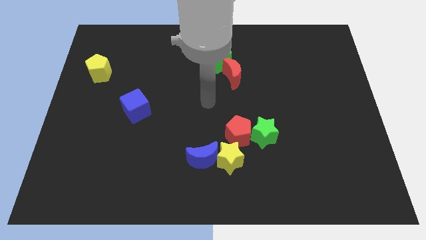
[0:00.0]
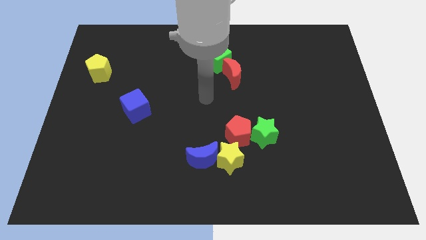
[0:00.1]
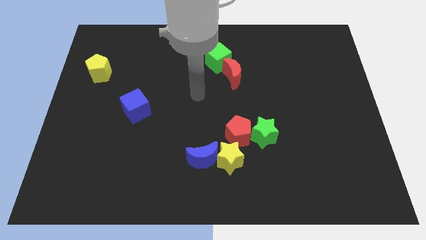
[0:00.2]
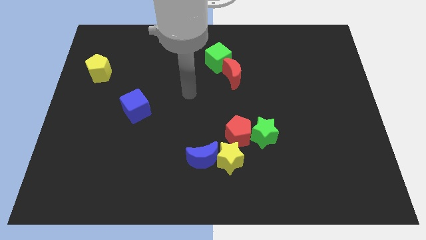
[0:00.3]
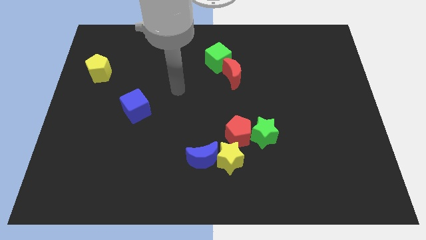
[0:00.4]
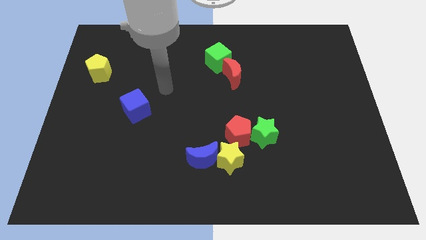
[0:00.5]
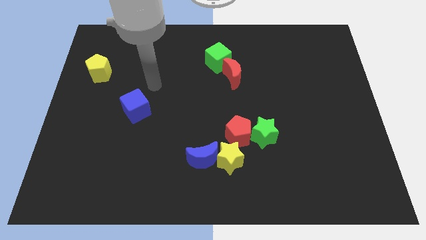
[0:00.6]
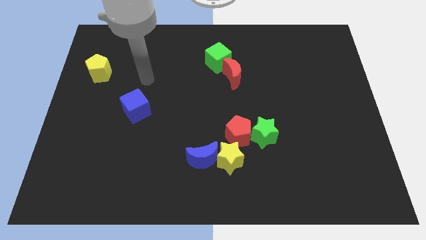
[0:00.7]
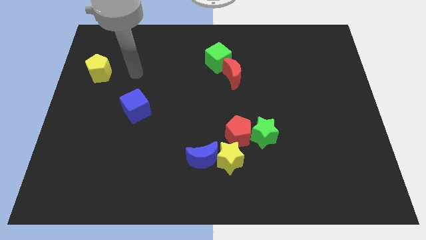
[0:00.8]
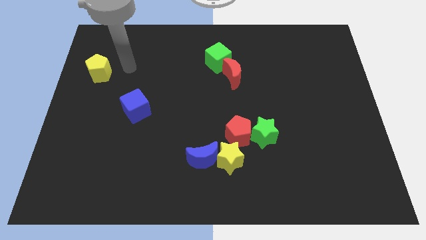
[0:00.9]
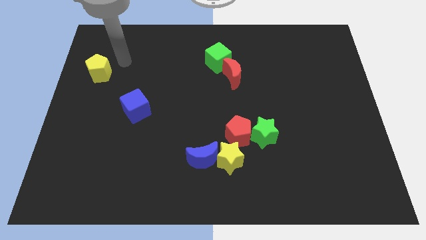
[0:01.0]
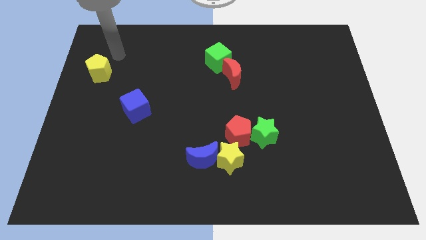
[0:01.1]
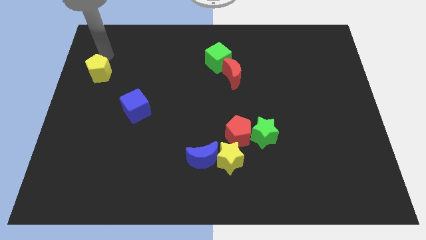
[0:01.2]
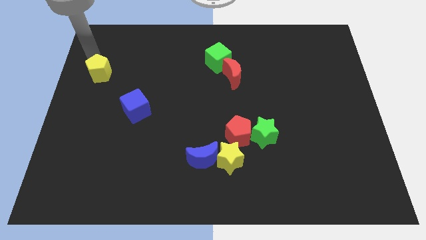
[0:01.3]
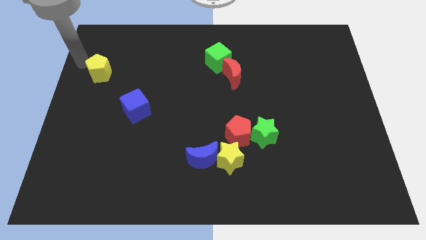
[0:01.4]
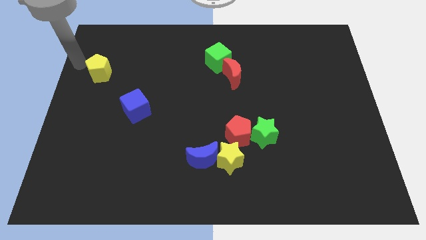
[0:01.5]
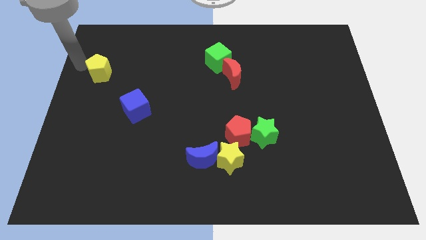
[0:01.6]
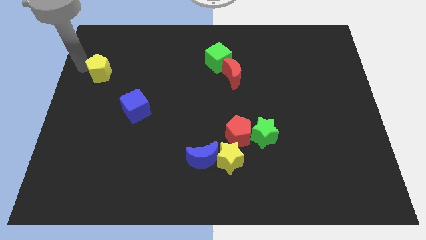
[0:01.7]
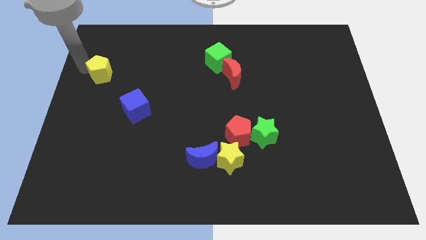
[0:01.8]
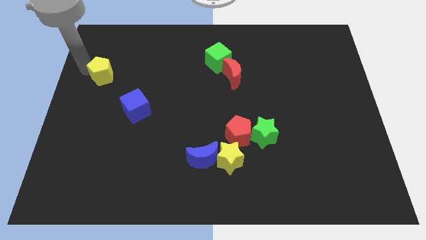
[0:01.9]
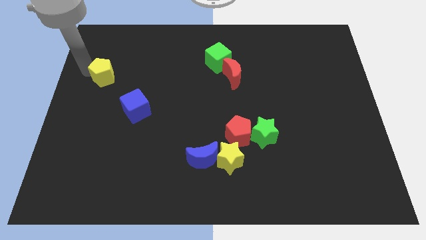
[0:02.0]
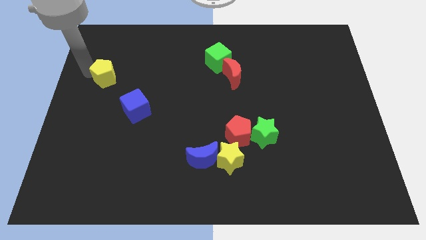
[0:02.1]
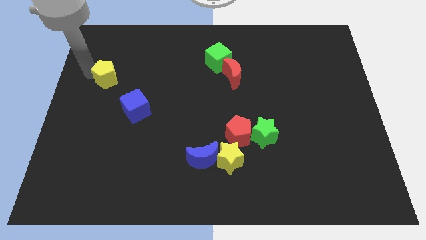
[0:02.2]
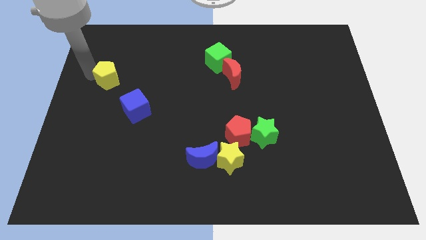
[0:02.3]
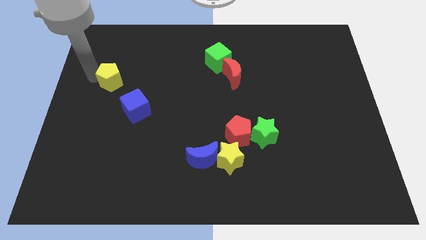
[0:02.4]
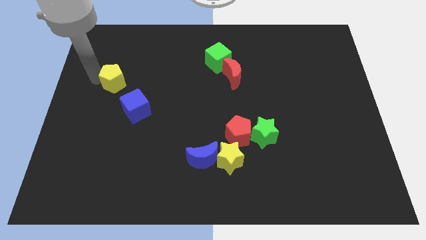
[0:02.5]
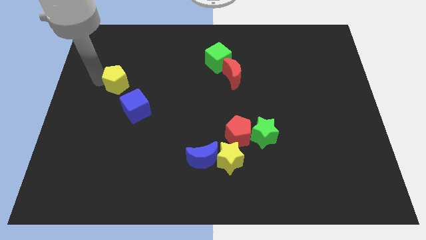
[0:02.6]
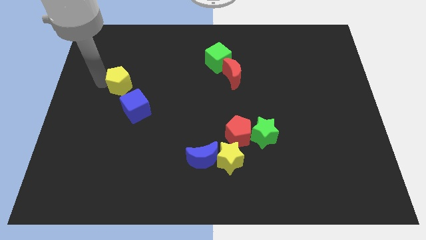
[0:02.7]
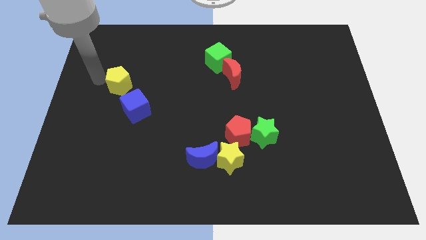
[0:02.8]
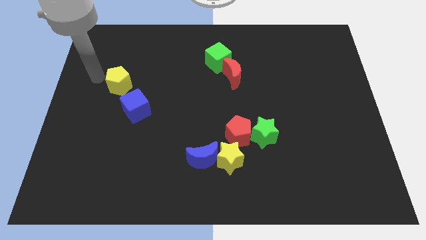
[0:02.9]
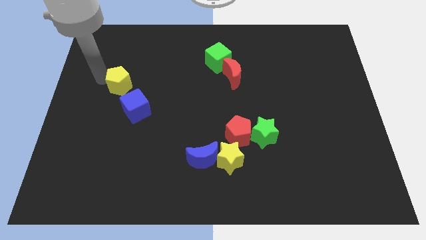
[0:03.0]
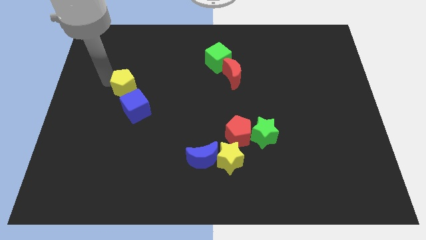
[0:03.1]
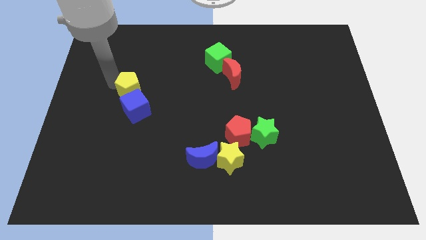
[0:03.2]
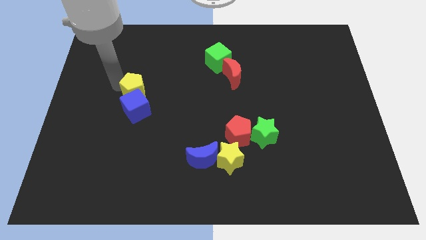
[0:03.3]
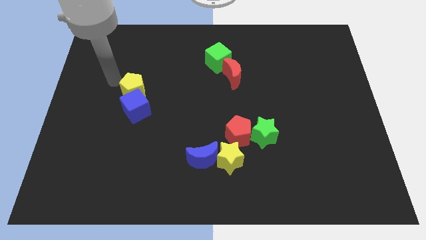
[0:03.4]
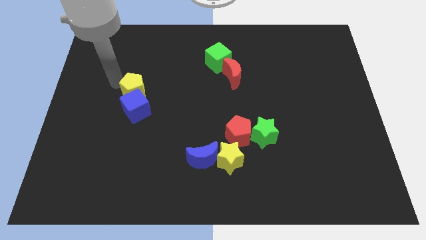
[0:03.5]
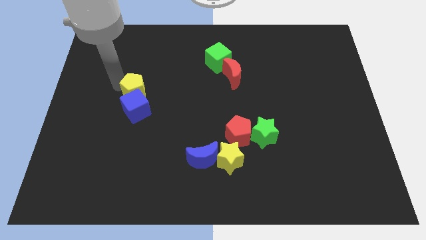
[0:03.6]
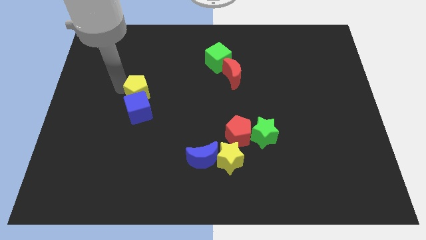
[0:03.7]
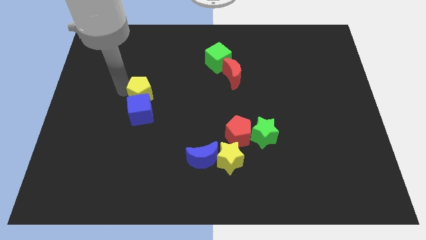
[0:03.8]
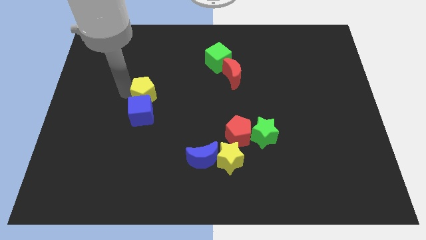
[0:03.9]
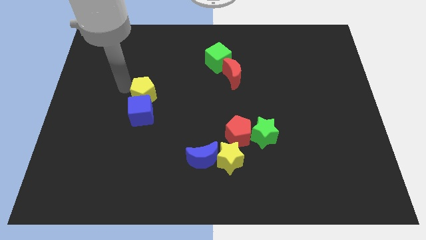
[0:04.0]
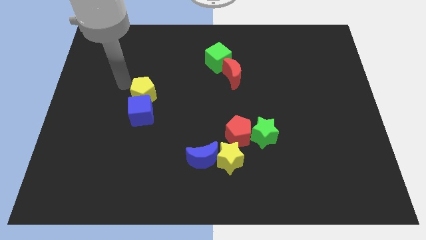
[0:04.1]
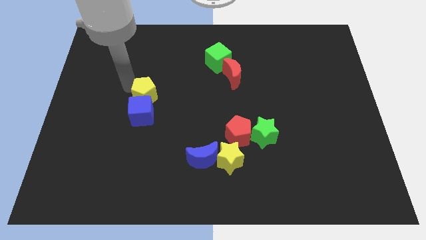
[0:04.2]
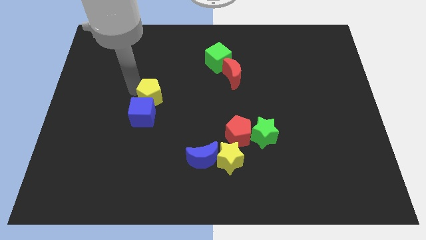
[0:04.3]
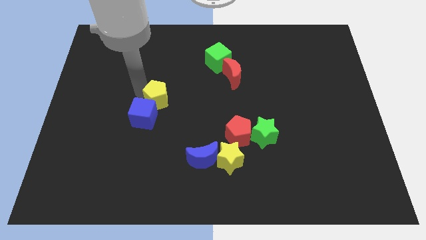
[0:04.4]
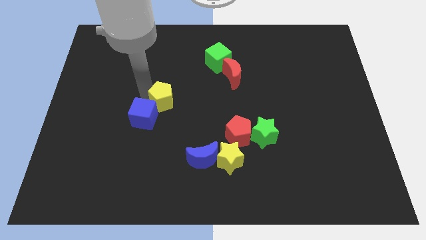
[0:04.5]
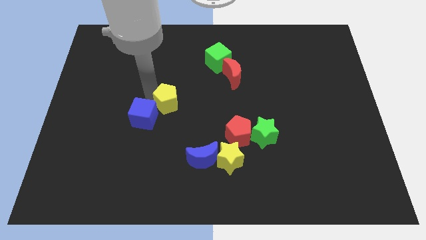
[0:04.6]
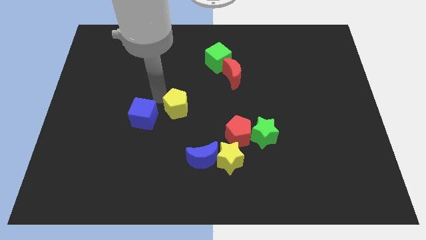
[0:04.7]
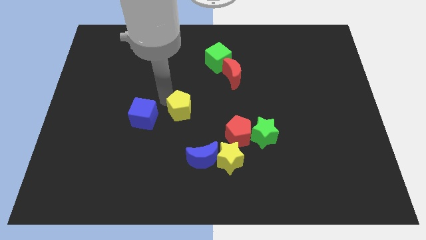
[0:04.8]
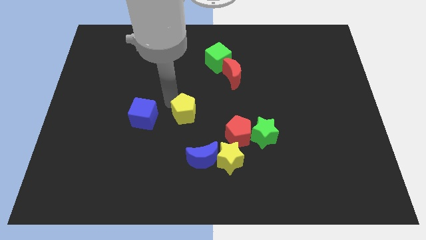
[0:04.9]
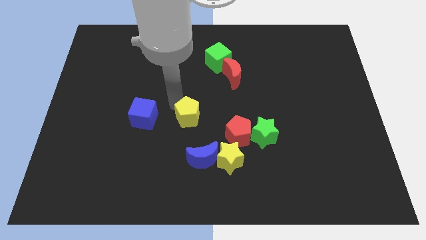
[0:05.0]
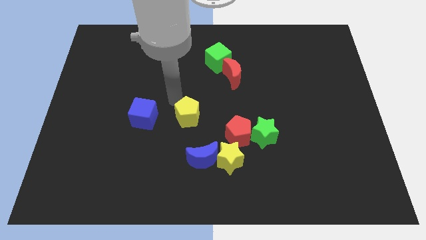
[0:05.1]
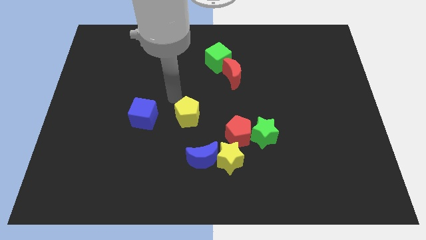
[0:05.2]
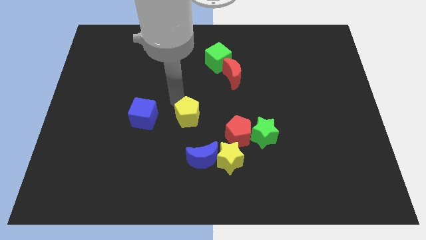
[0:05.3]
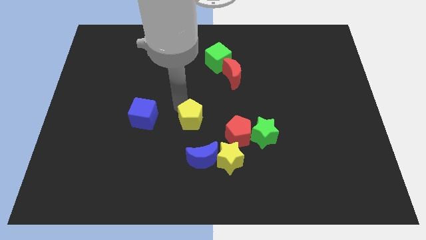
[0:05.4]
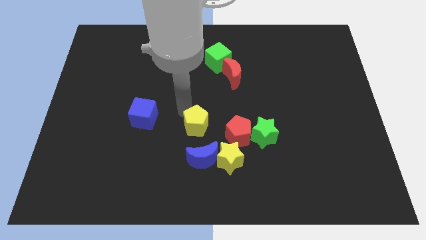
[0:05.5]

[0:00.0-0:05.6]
slide the yellow pentagon diagonally up and to the left of the yellow star

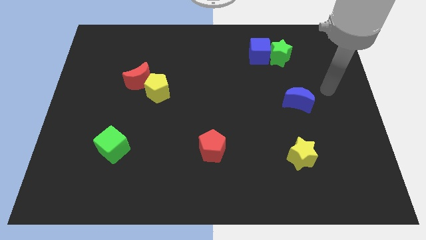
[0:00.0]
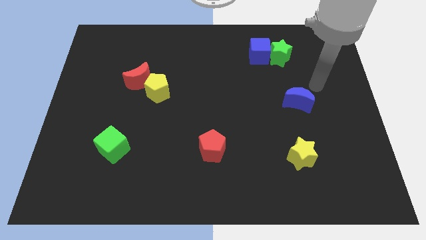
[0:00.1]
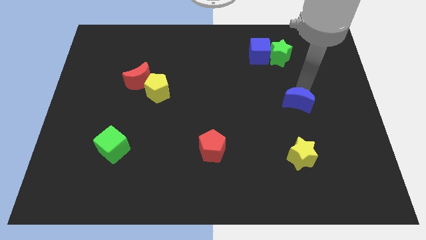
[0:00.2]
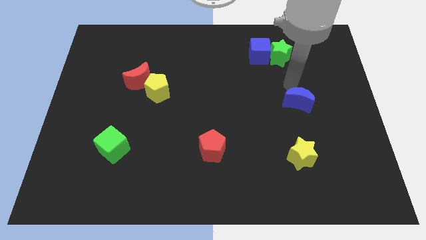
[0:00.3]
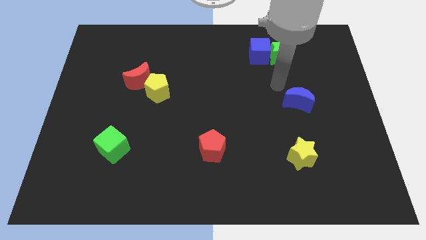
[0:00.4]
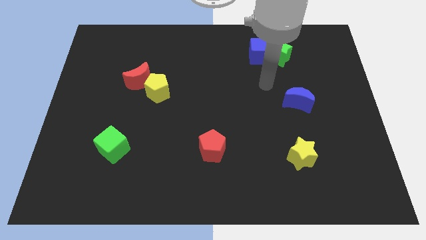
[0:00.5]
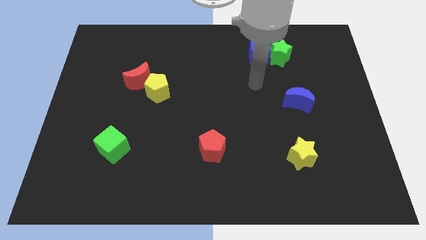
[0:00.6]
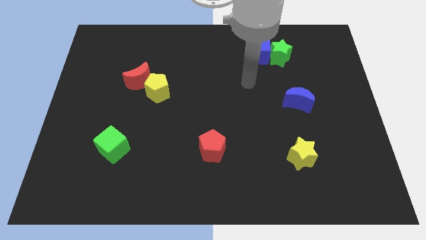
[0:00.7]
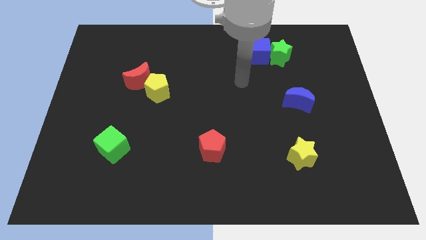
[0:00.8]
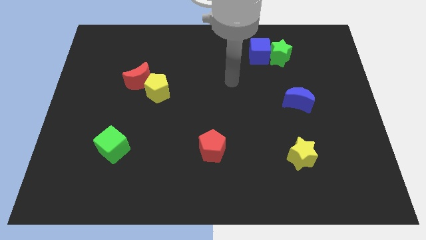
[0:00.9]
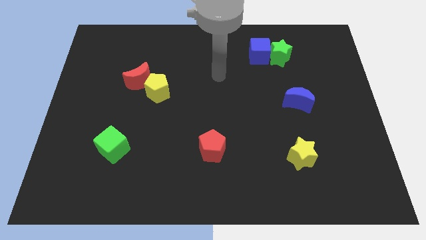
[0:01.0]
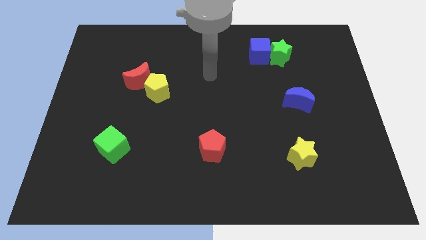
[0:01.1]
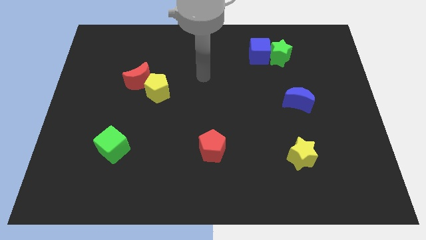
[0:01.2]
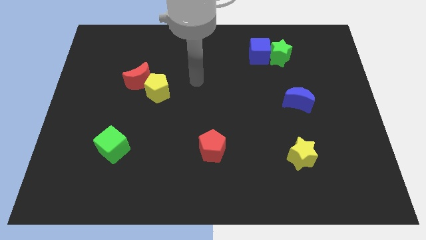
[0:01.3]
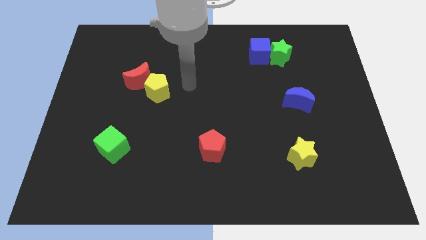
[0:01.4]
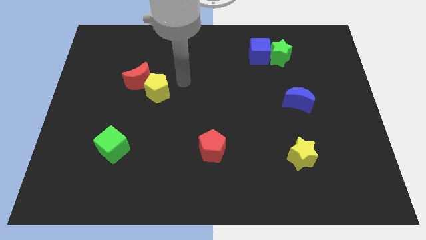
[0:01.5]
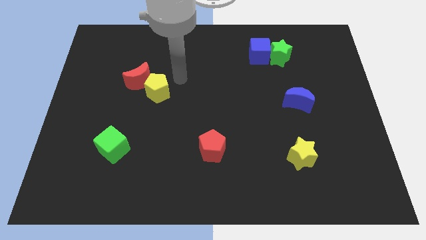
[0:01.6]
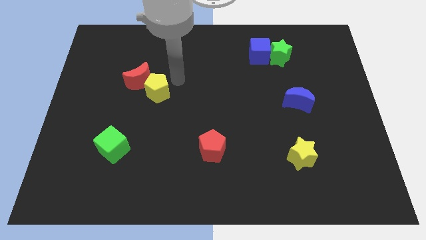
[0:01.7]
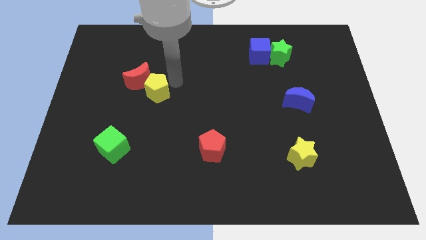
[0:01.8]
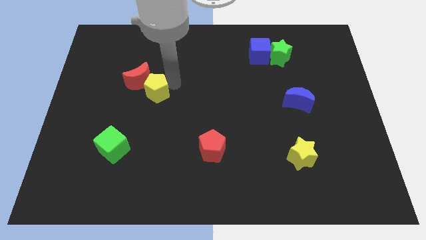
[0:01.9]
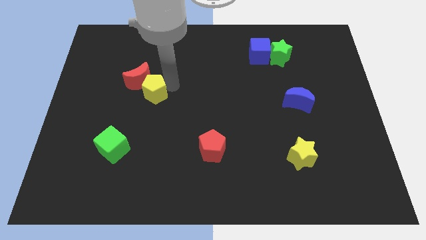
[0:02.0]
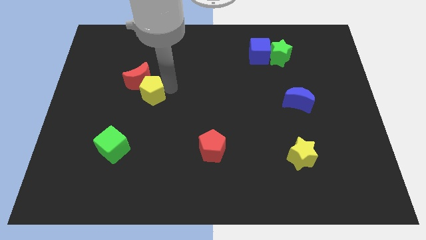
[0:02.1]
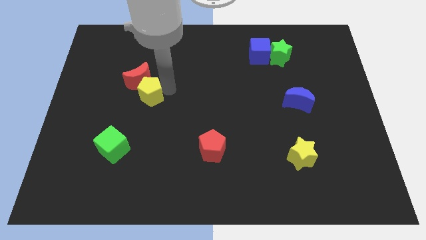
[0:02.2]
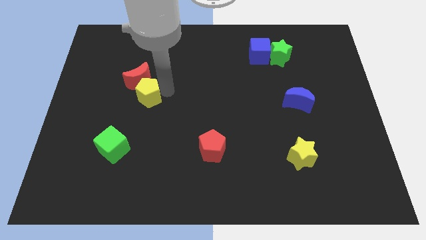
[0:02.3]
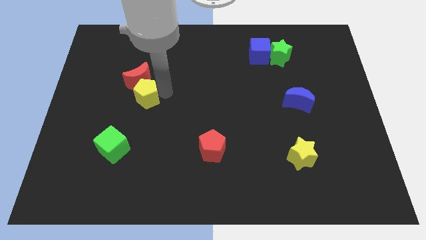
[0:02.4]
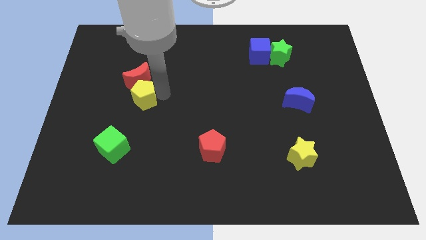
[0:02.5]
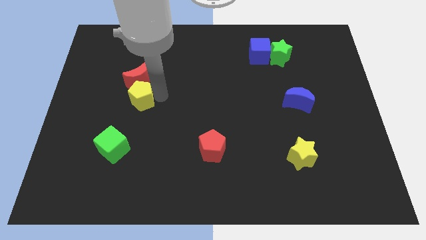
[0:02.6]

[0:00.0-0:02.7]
move the yellow pentagon above the green cube

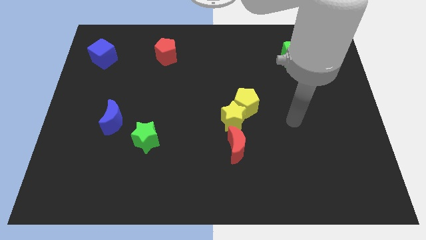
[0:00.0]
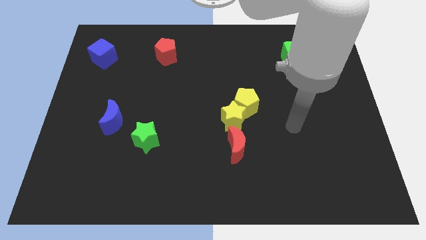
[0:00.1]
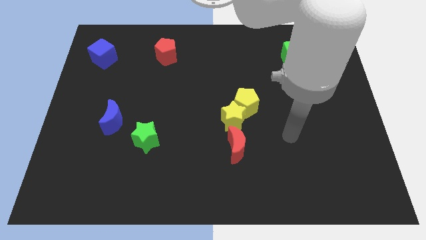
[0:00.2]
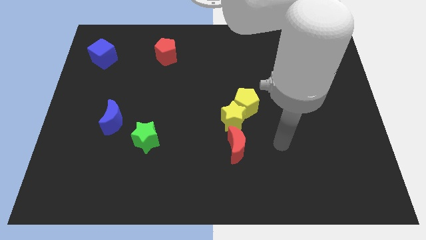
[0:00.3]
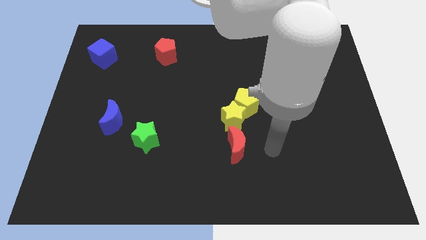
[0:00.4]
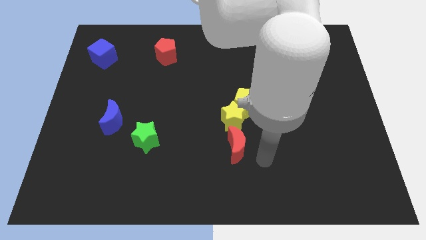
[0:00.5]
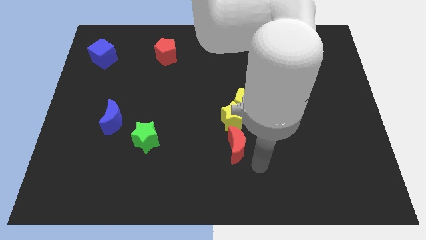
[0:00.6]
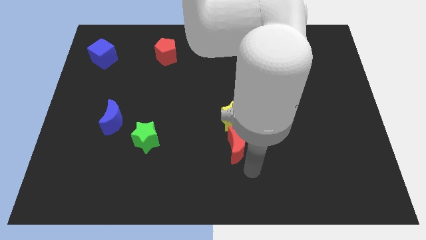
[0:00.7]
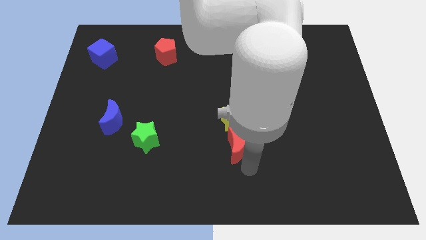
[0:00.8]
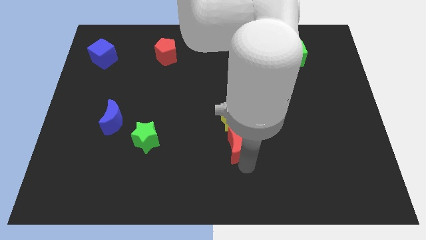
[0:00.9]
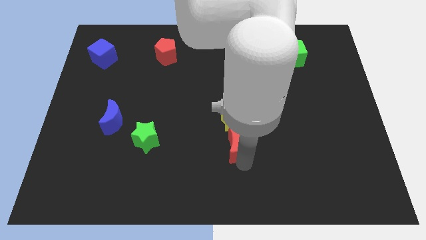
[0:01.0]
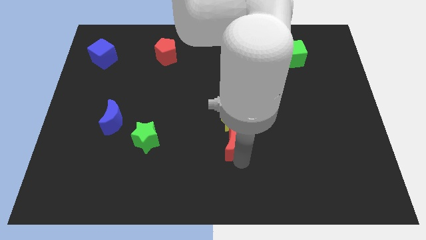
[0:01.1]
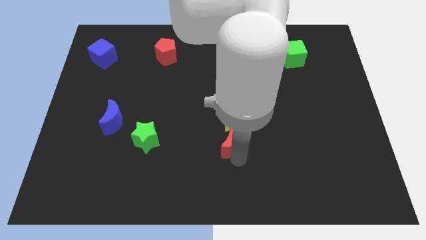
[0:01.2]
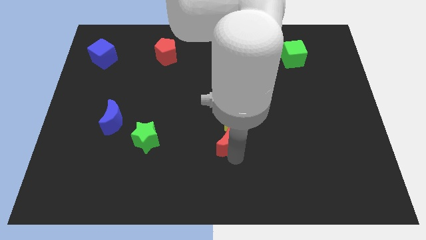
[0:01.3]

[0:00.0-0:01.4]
slide the red moon to the bottom left side of the yellow pentagon
